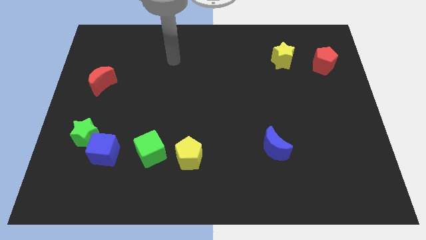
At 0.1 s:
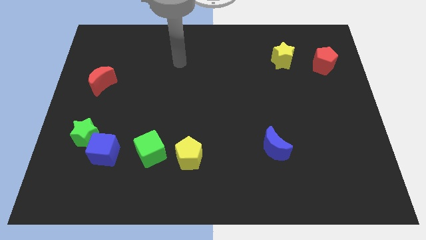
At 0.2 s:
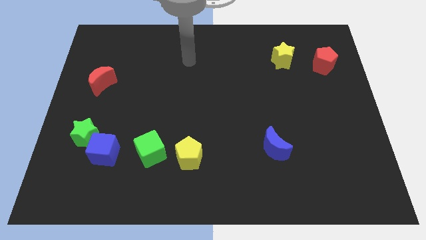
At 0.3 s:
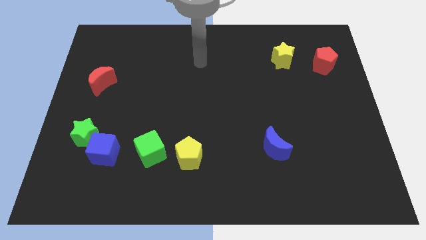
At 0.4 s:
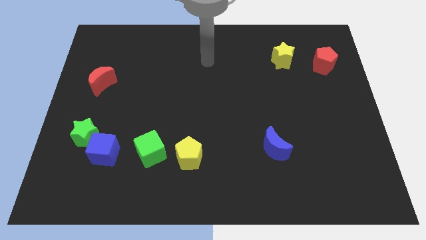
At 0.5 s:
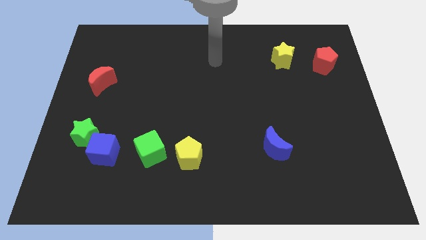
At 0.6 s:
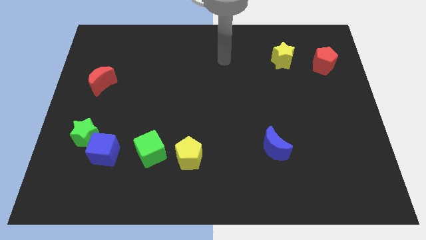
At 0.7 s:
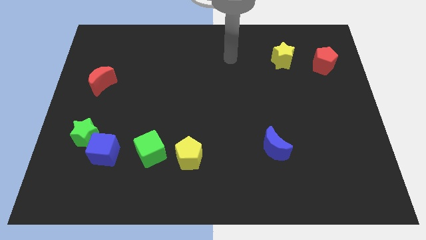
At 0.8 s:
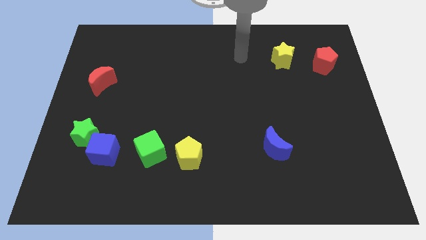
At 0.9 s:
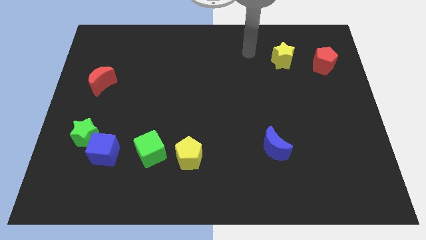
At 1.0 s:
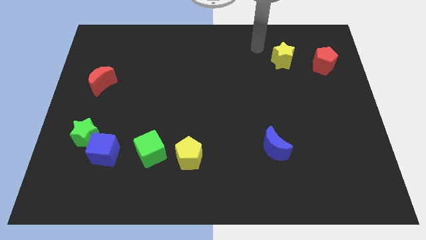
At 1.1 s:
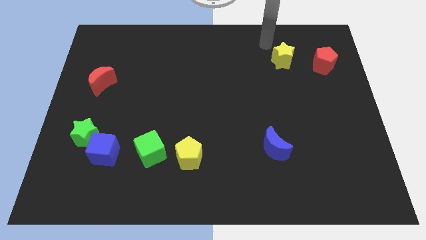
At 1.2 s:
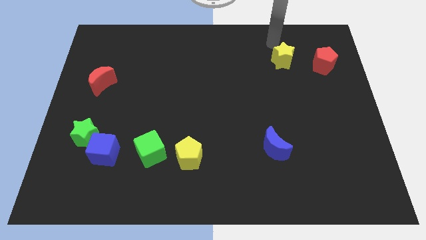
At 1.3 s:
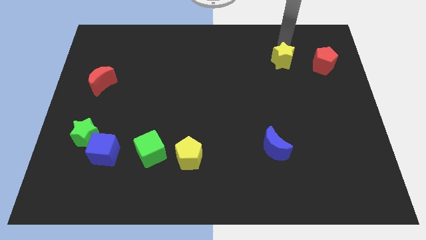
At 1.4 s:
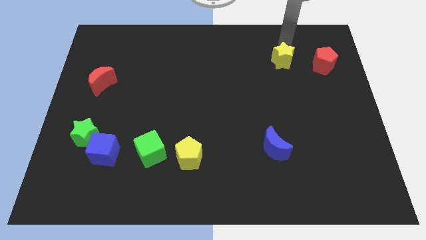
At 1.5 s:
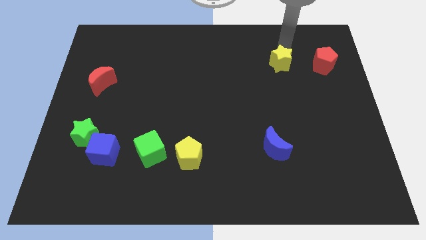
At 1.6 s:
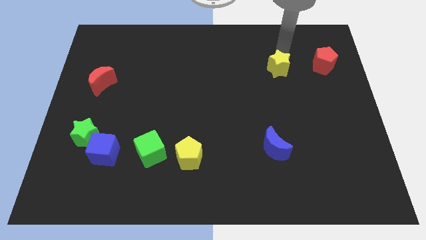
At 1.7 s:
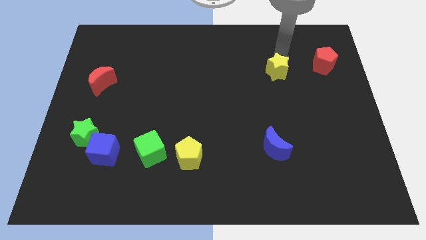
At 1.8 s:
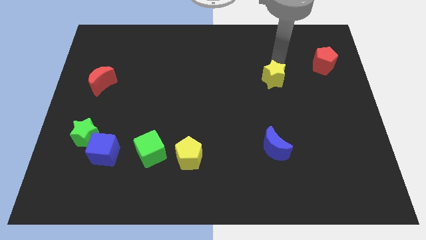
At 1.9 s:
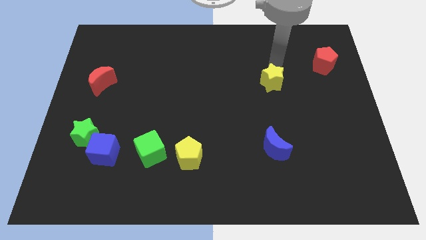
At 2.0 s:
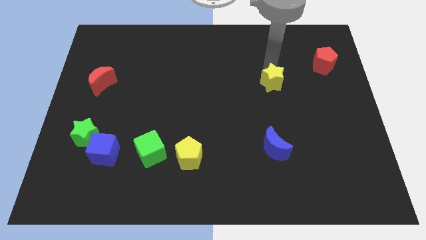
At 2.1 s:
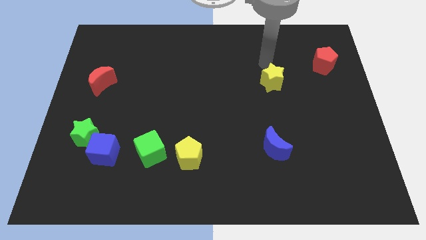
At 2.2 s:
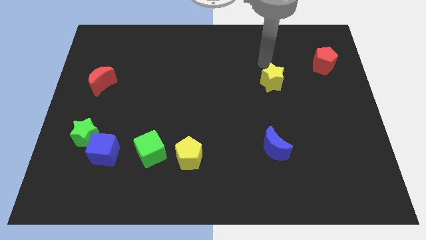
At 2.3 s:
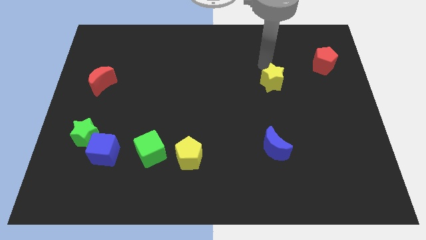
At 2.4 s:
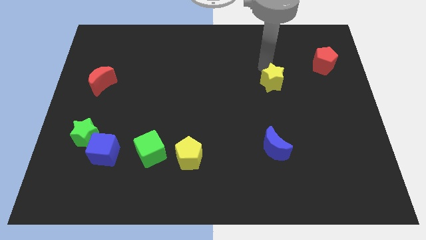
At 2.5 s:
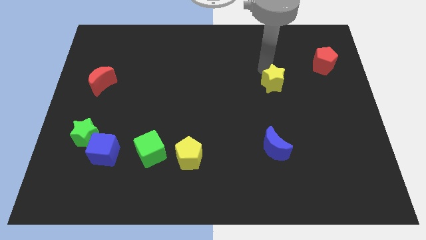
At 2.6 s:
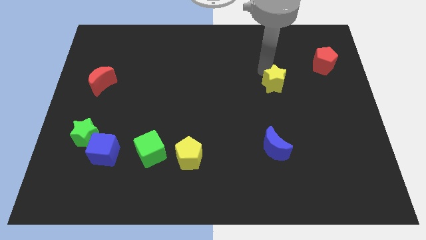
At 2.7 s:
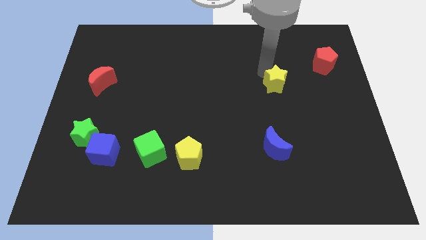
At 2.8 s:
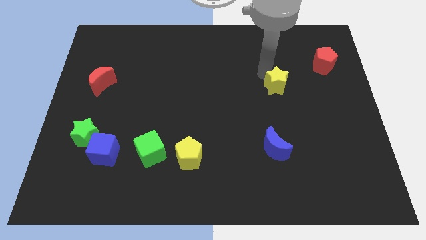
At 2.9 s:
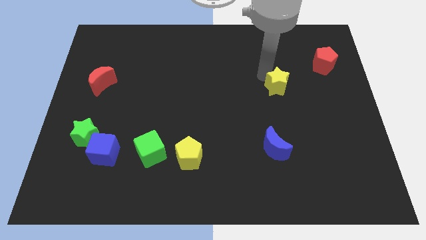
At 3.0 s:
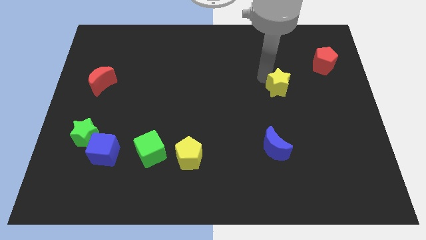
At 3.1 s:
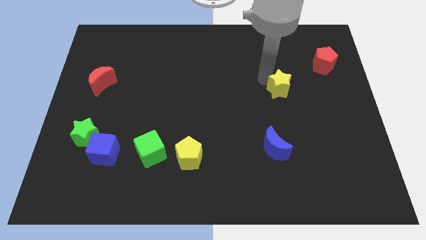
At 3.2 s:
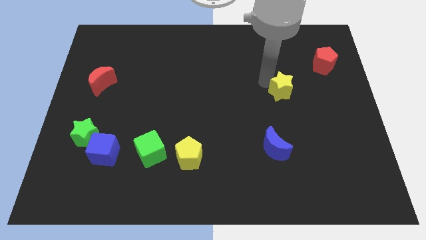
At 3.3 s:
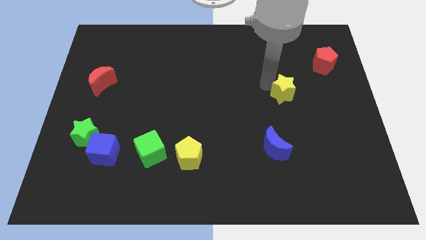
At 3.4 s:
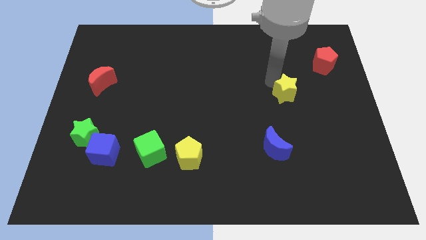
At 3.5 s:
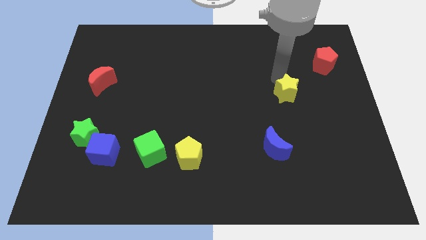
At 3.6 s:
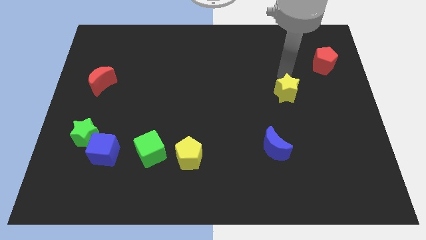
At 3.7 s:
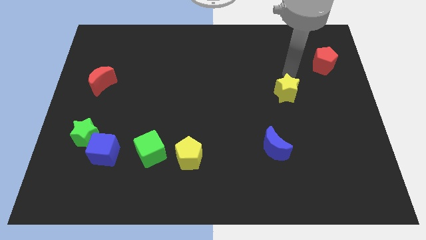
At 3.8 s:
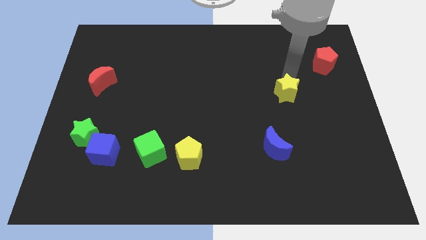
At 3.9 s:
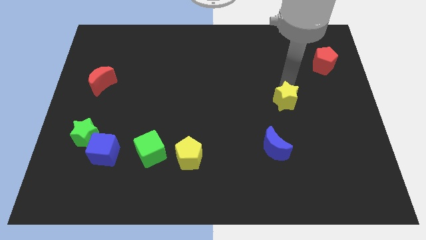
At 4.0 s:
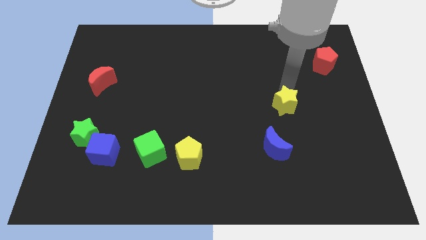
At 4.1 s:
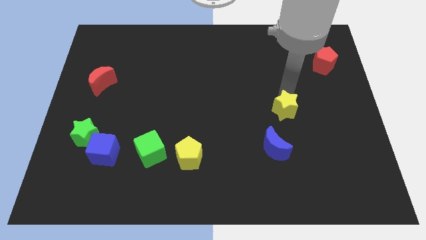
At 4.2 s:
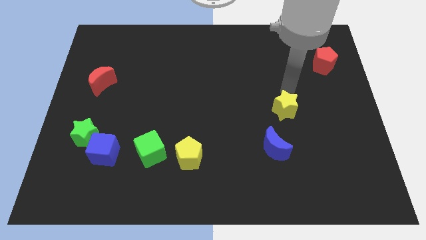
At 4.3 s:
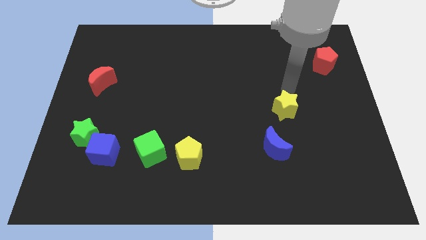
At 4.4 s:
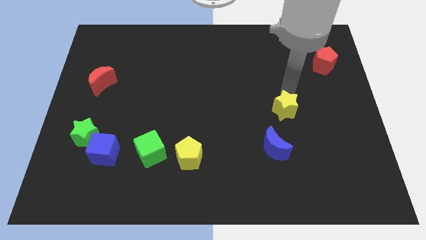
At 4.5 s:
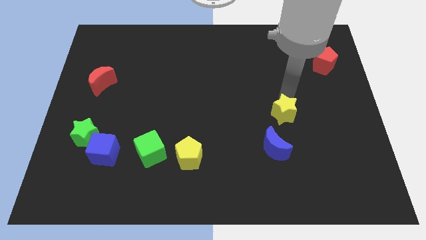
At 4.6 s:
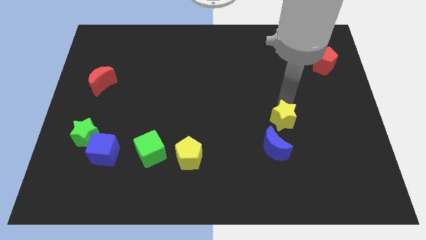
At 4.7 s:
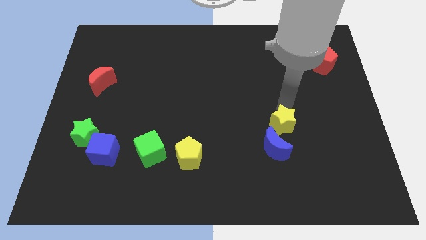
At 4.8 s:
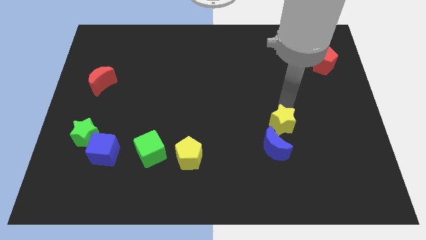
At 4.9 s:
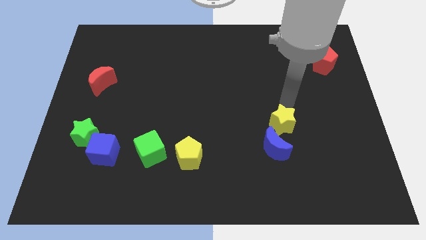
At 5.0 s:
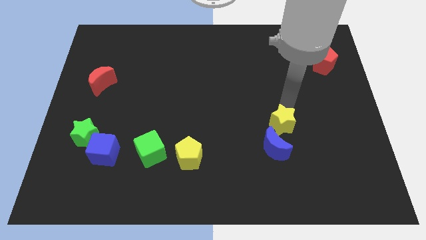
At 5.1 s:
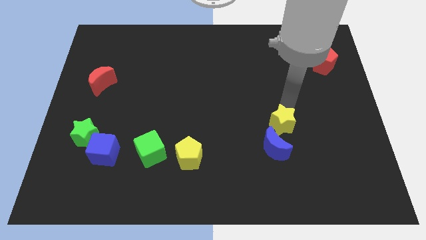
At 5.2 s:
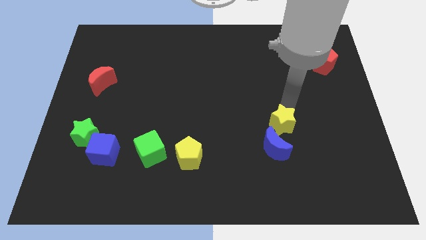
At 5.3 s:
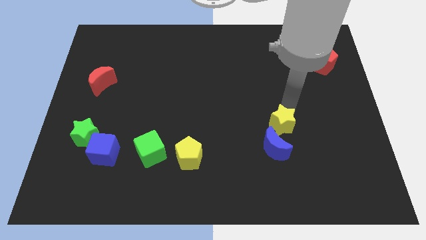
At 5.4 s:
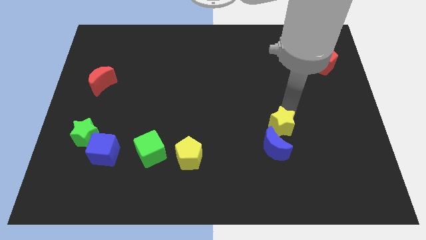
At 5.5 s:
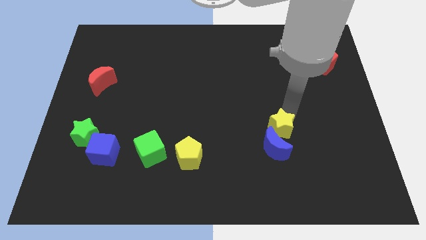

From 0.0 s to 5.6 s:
push the yellow star towards the blue moon

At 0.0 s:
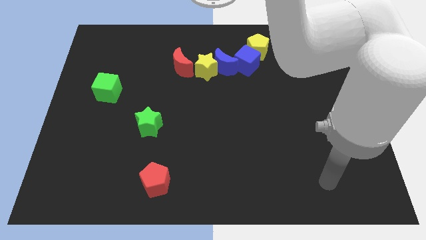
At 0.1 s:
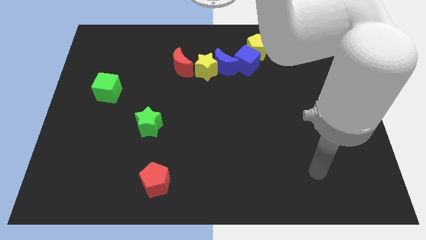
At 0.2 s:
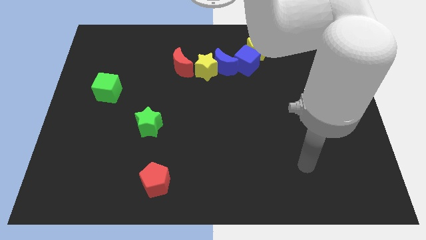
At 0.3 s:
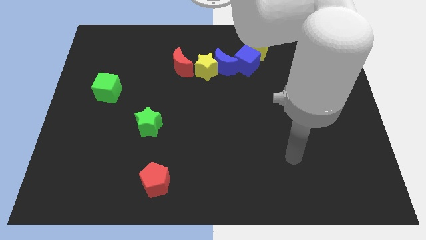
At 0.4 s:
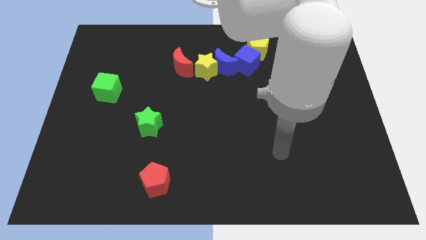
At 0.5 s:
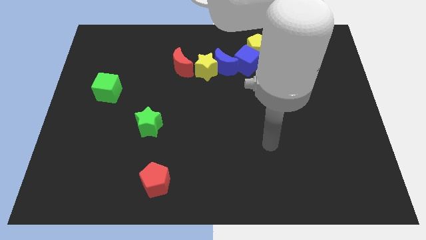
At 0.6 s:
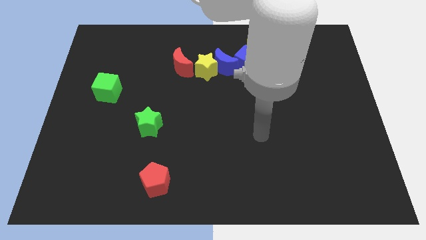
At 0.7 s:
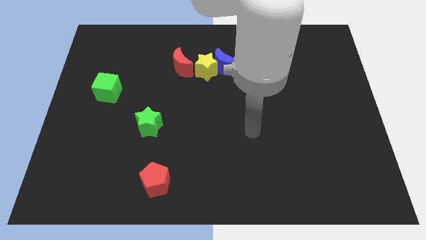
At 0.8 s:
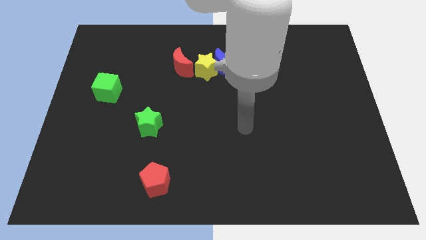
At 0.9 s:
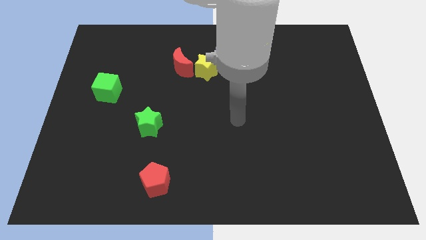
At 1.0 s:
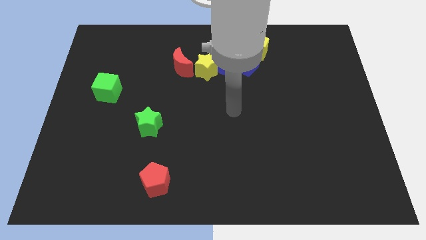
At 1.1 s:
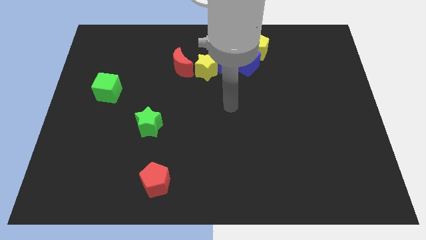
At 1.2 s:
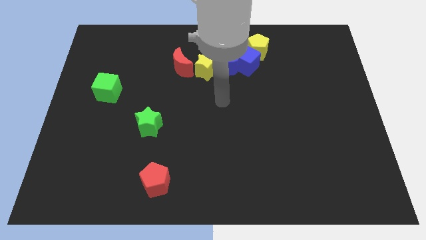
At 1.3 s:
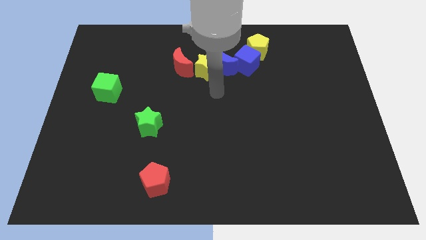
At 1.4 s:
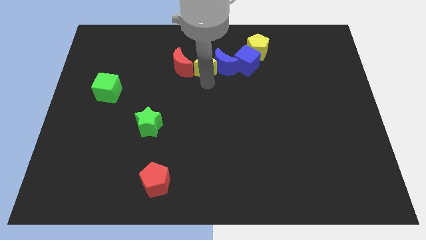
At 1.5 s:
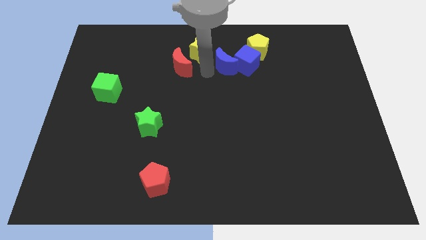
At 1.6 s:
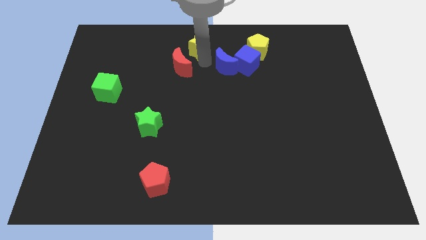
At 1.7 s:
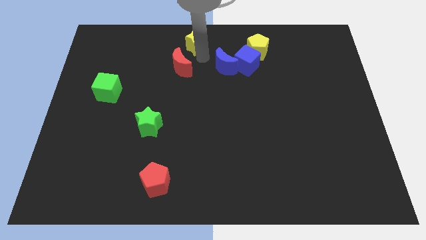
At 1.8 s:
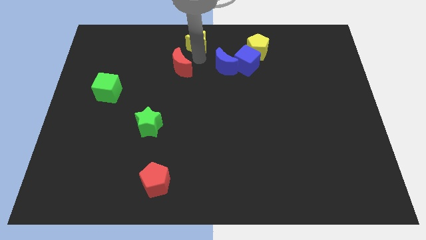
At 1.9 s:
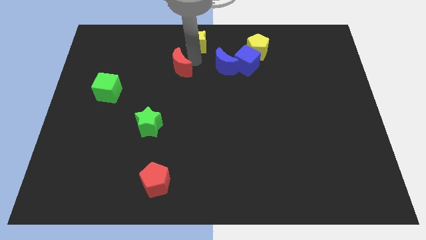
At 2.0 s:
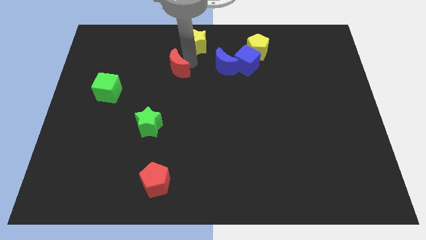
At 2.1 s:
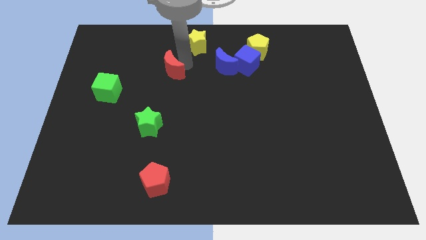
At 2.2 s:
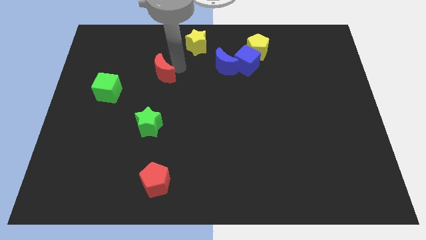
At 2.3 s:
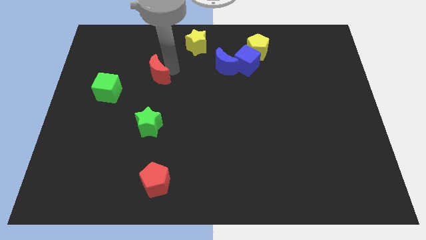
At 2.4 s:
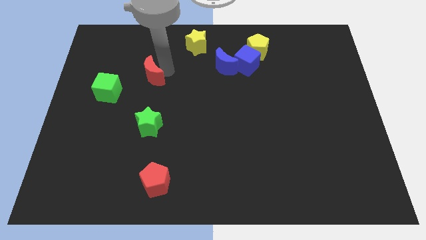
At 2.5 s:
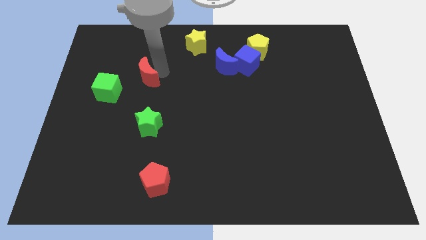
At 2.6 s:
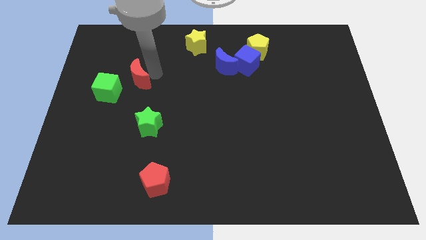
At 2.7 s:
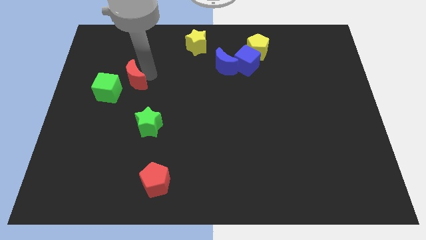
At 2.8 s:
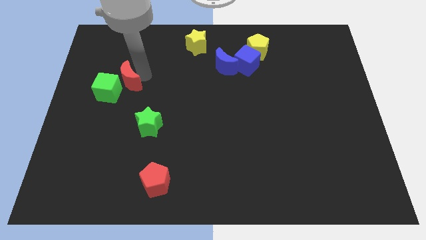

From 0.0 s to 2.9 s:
move the red moon close to the green cube
